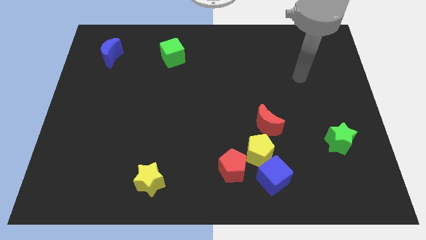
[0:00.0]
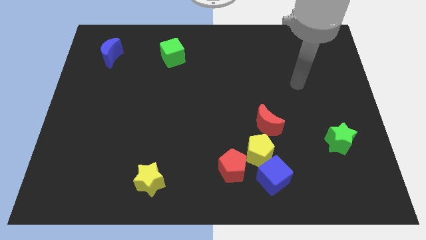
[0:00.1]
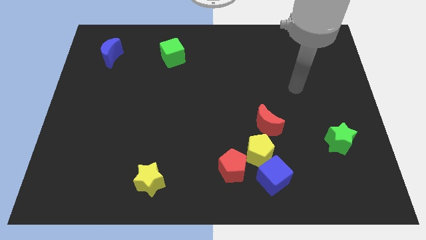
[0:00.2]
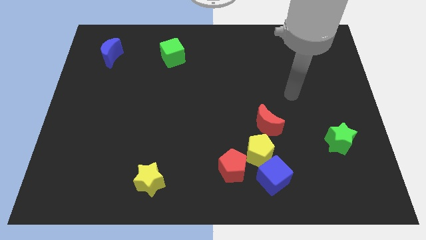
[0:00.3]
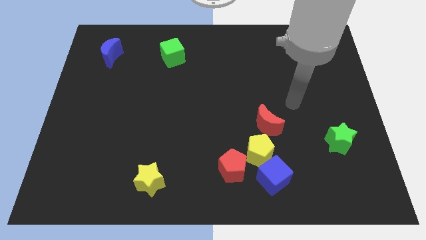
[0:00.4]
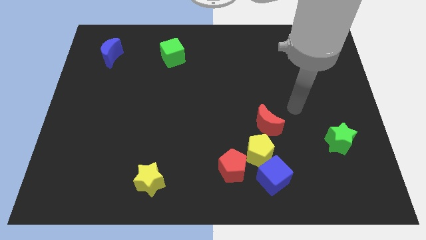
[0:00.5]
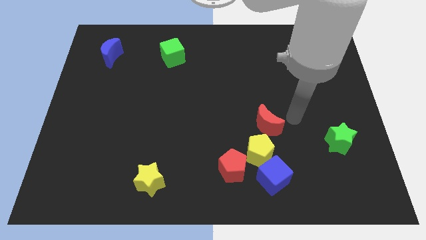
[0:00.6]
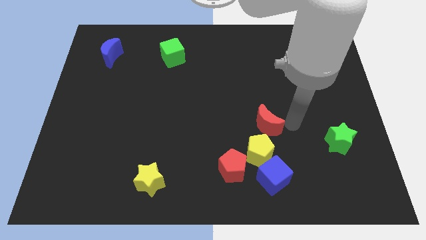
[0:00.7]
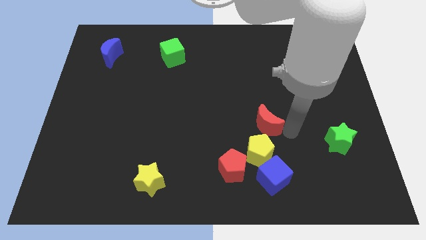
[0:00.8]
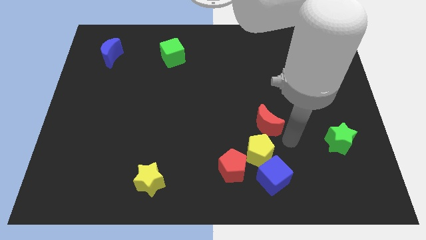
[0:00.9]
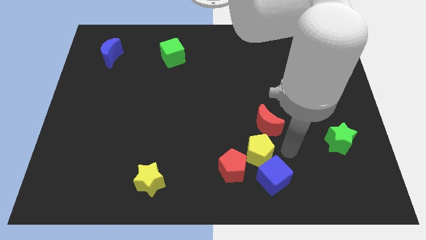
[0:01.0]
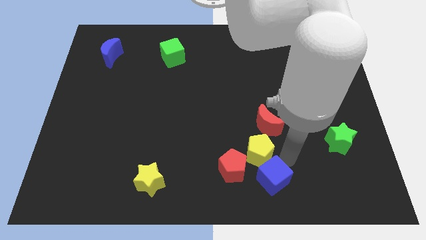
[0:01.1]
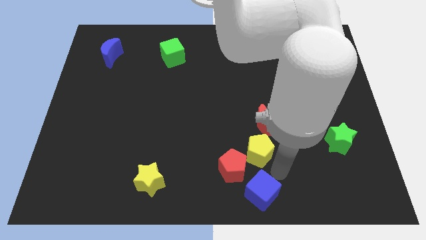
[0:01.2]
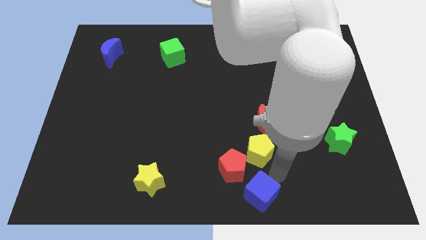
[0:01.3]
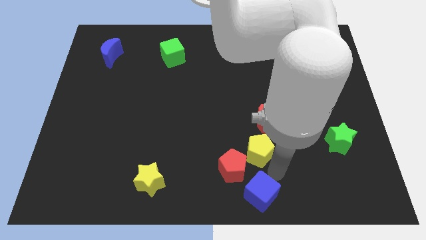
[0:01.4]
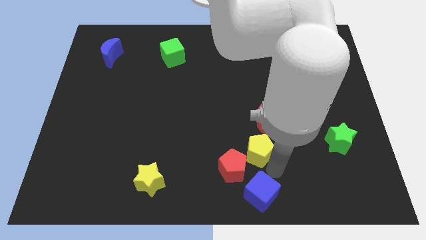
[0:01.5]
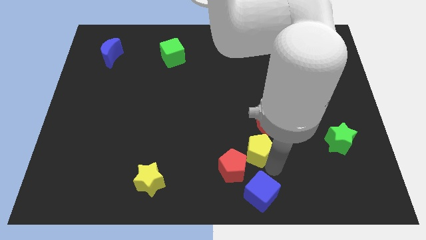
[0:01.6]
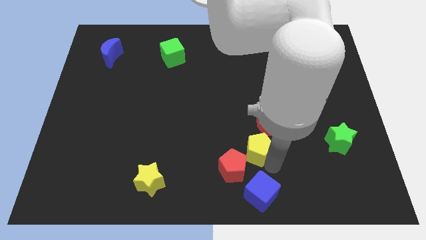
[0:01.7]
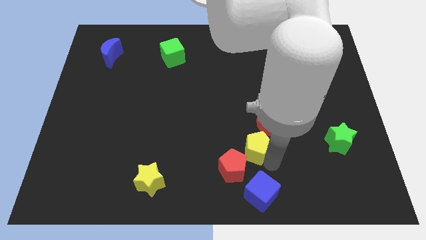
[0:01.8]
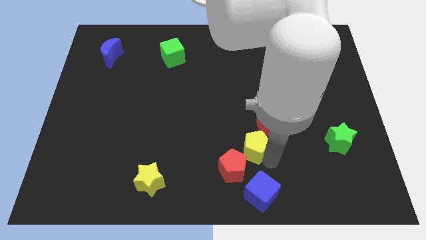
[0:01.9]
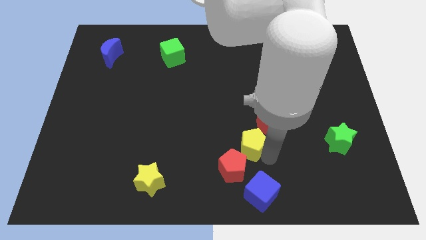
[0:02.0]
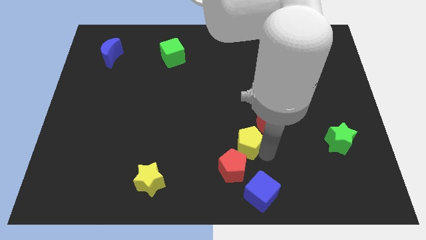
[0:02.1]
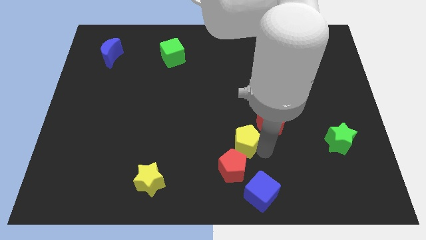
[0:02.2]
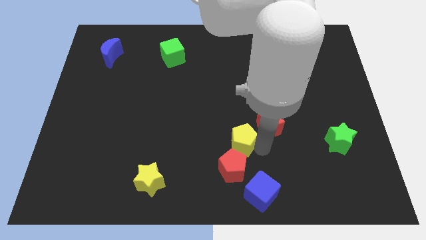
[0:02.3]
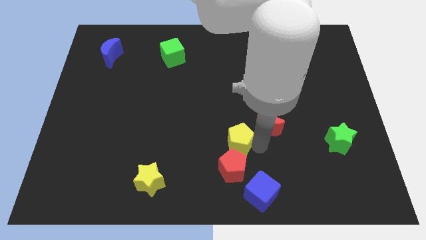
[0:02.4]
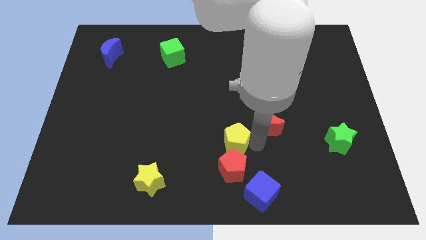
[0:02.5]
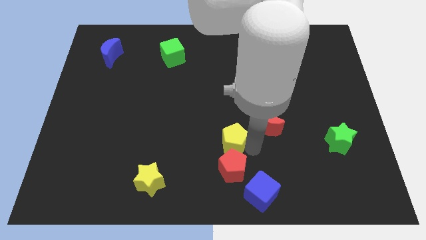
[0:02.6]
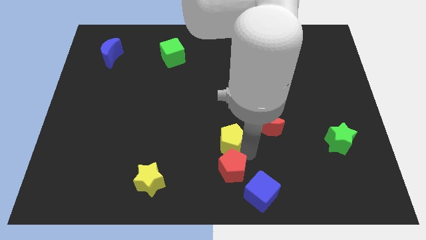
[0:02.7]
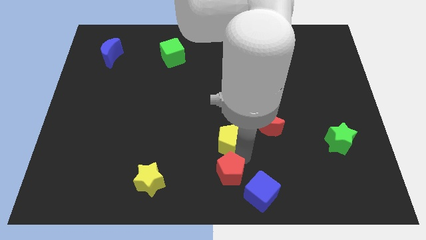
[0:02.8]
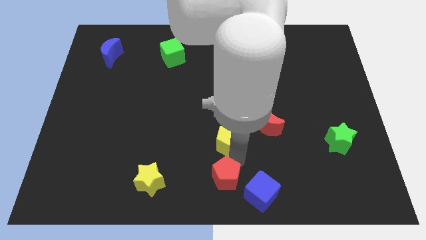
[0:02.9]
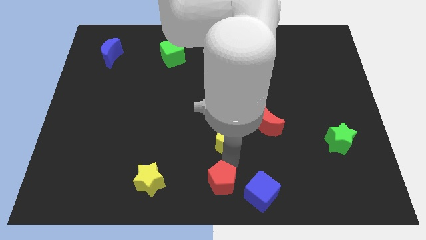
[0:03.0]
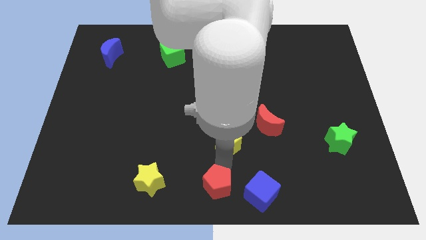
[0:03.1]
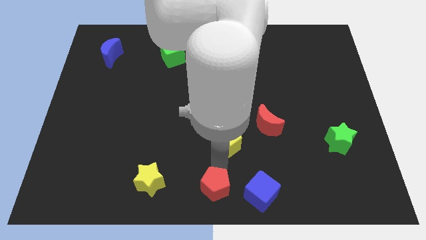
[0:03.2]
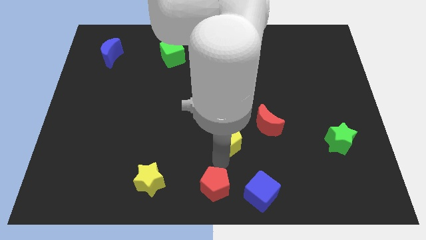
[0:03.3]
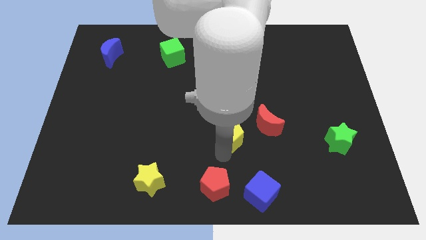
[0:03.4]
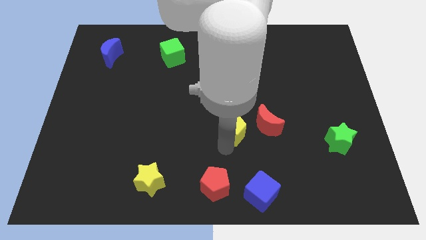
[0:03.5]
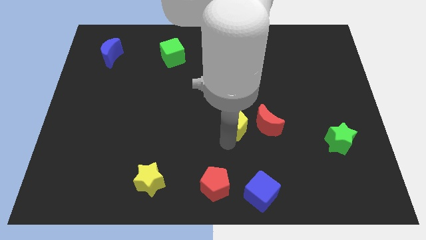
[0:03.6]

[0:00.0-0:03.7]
separate the yellow pentagon from the blue cube, red pentagon, and red moon

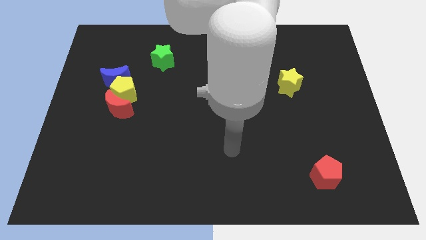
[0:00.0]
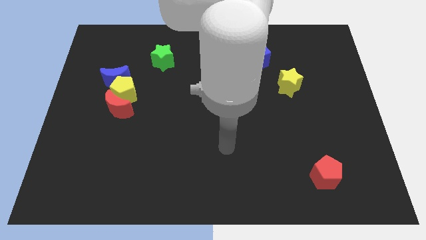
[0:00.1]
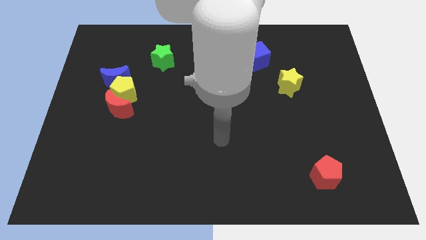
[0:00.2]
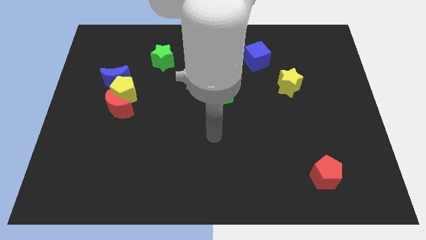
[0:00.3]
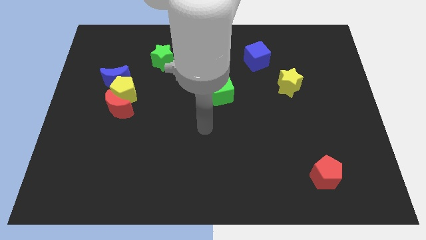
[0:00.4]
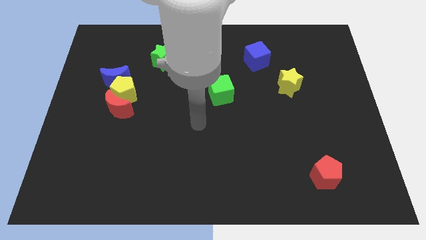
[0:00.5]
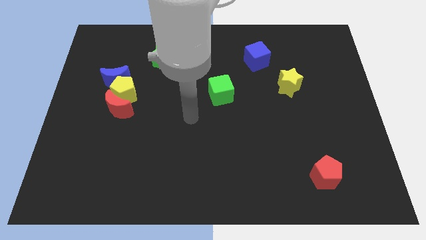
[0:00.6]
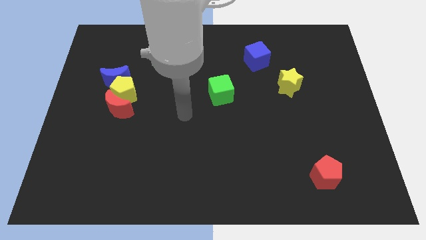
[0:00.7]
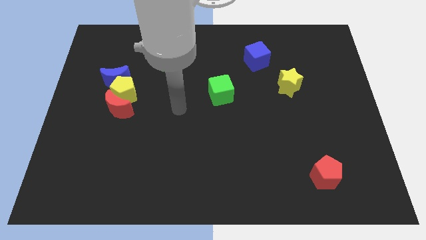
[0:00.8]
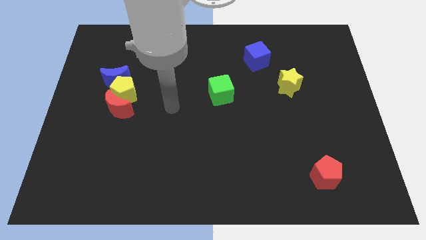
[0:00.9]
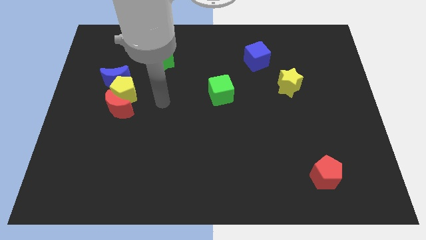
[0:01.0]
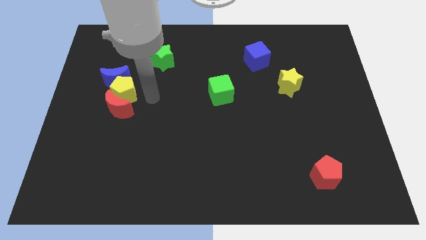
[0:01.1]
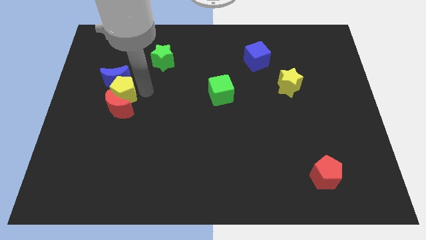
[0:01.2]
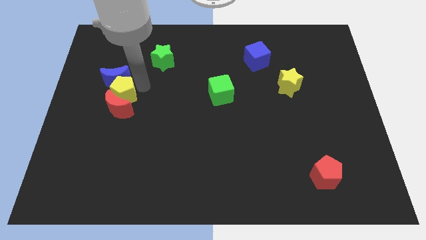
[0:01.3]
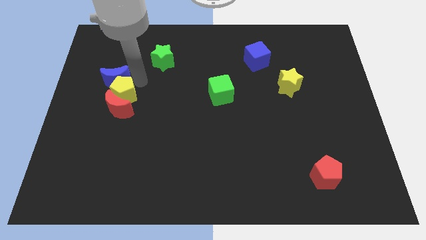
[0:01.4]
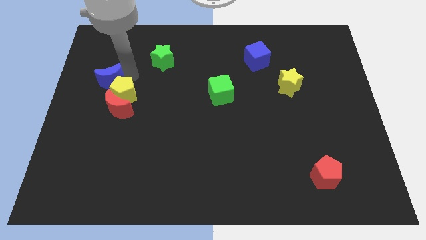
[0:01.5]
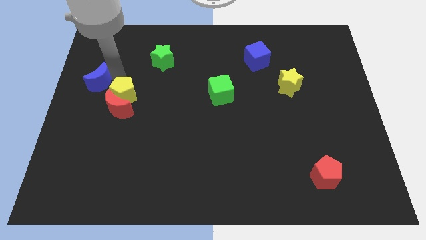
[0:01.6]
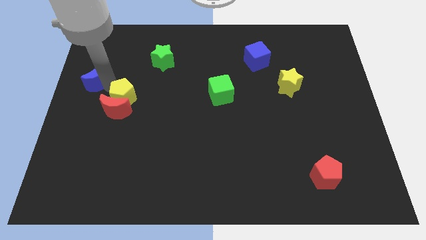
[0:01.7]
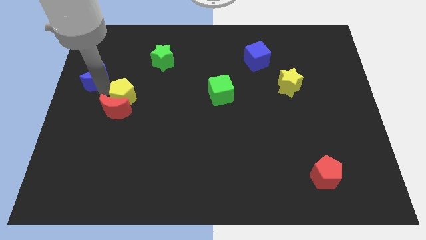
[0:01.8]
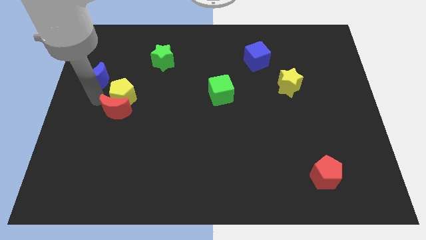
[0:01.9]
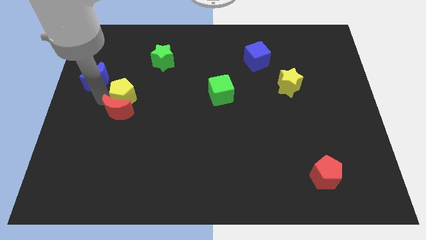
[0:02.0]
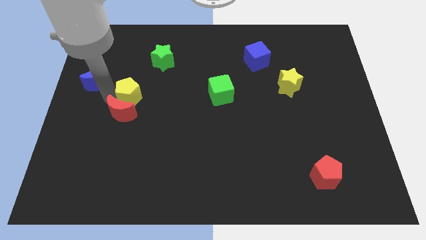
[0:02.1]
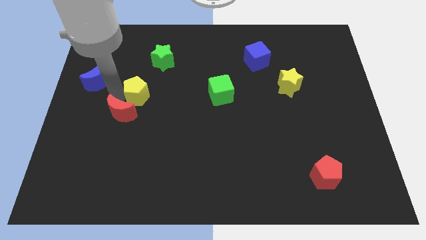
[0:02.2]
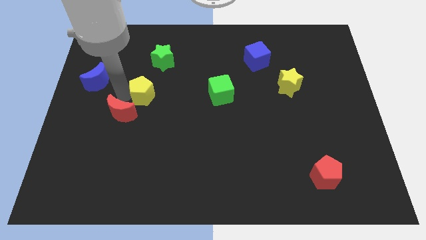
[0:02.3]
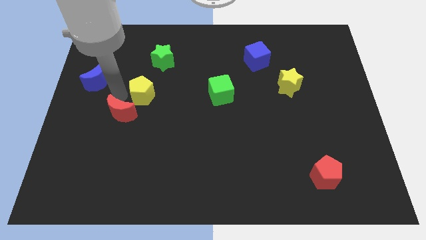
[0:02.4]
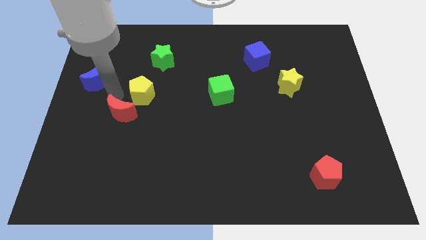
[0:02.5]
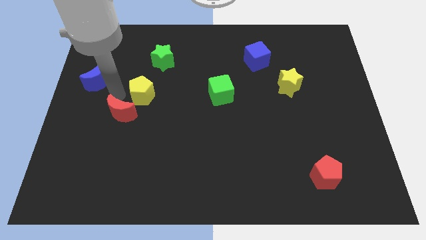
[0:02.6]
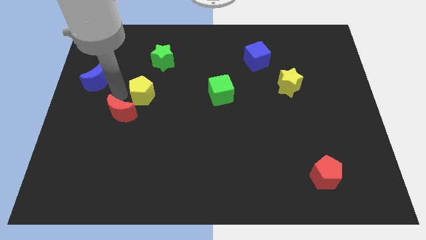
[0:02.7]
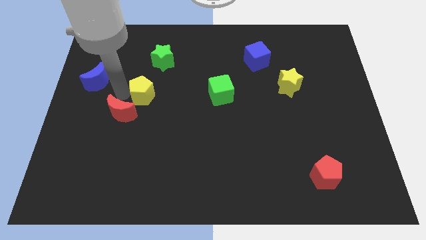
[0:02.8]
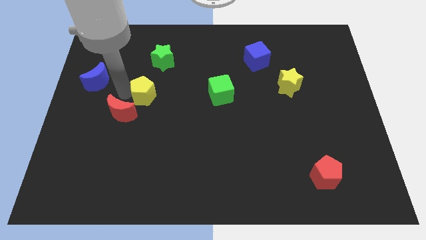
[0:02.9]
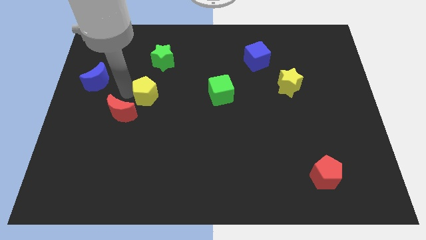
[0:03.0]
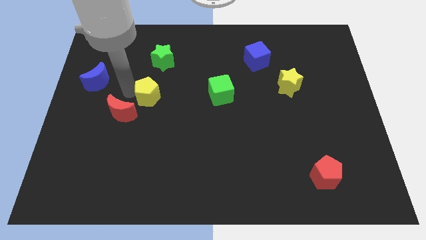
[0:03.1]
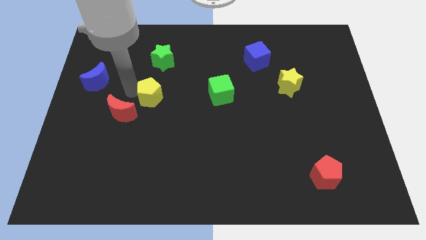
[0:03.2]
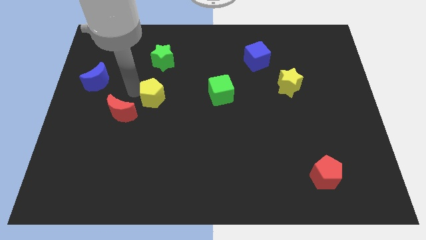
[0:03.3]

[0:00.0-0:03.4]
pull the yellow pentagon apart from the blue moon and red moon

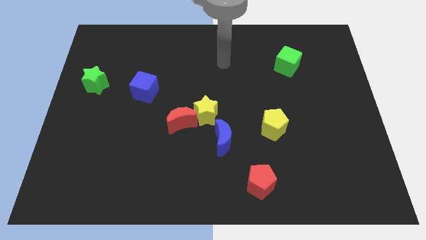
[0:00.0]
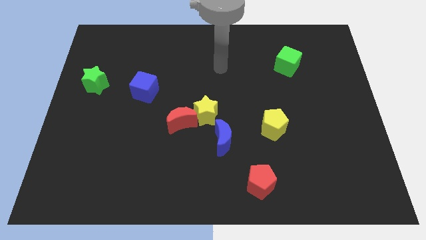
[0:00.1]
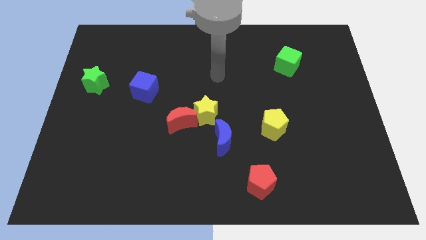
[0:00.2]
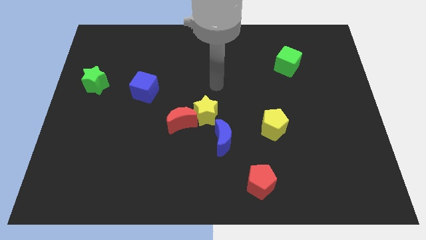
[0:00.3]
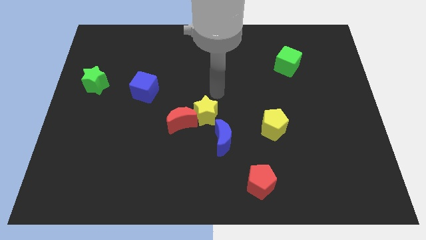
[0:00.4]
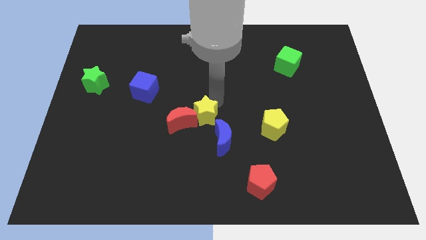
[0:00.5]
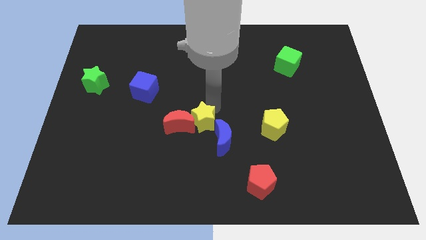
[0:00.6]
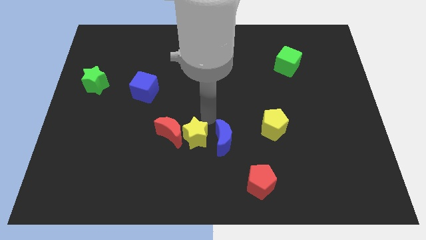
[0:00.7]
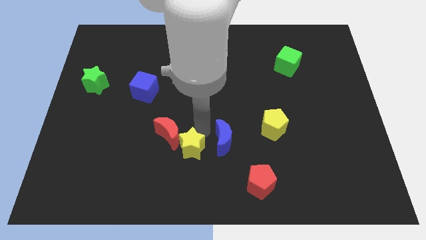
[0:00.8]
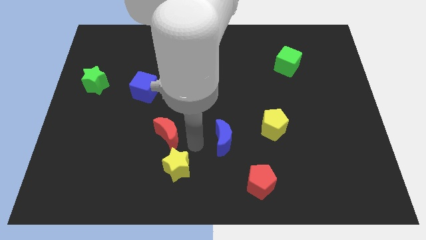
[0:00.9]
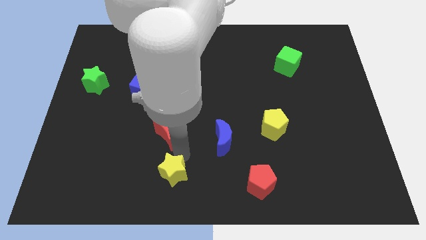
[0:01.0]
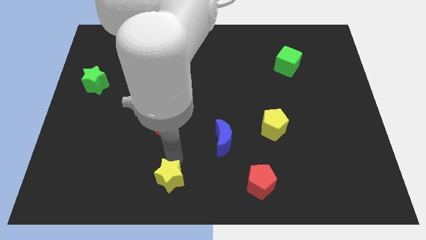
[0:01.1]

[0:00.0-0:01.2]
pull the red moon apart from the yellow star

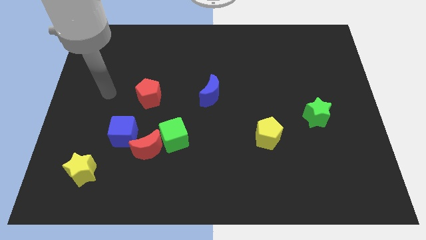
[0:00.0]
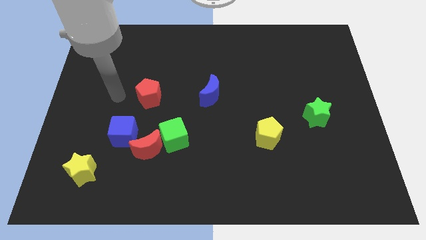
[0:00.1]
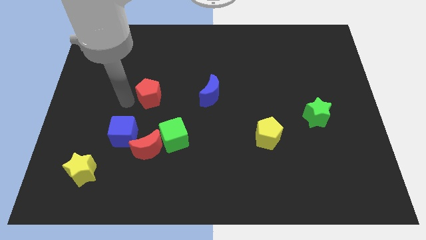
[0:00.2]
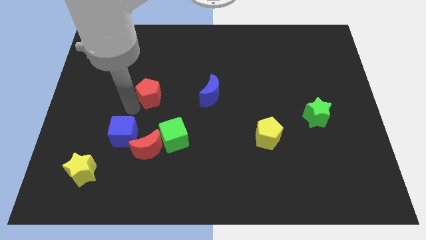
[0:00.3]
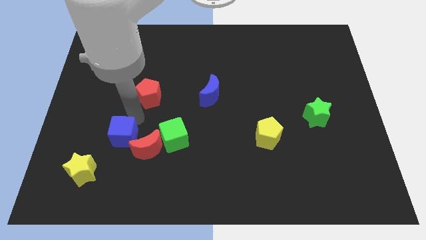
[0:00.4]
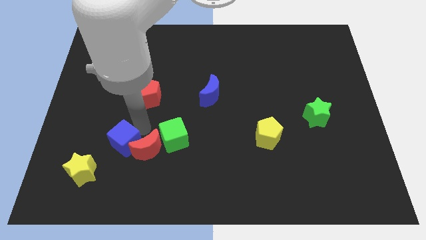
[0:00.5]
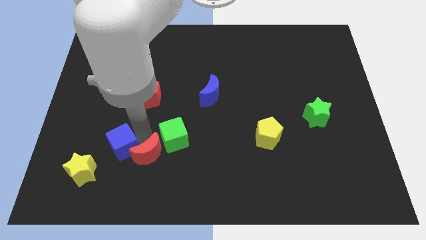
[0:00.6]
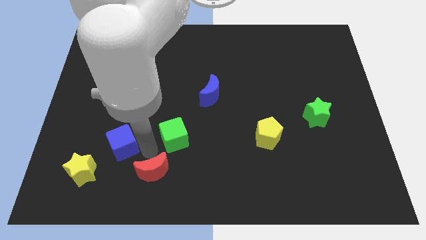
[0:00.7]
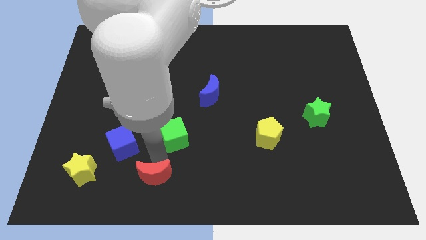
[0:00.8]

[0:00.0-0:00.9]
pull the green cube apart from the red moon

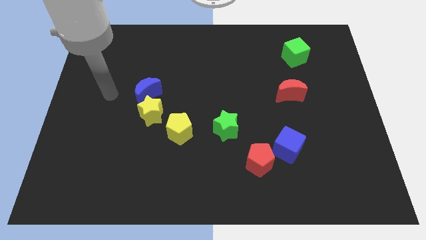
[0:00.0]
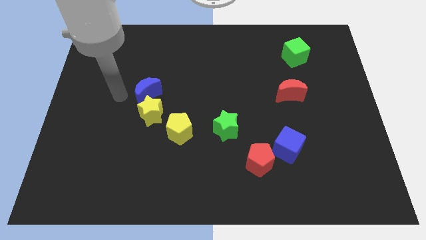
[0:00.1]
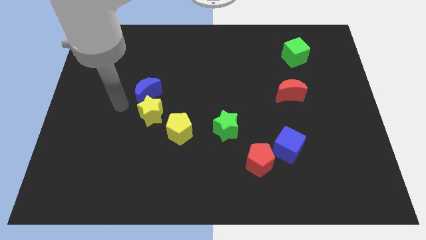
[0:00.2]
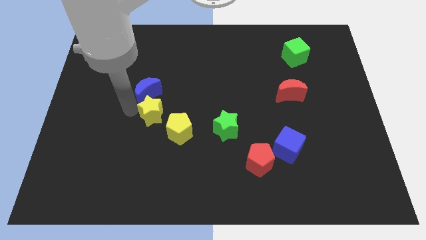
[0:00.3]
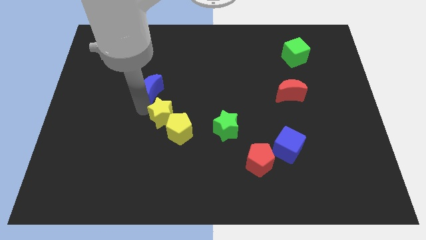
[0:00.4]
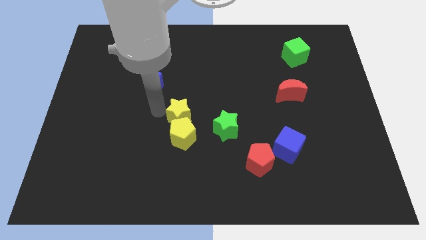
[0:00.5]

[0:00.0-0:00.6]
separate the blue moon from the yellow star
